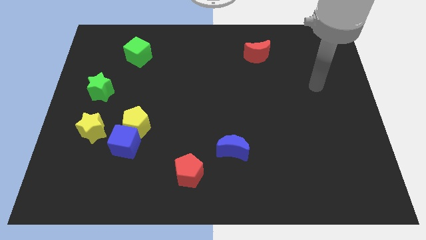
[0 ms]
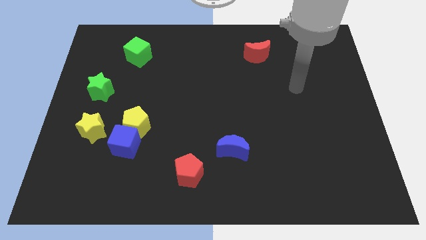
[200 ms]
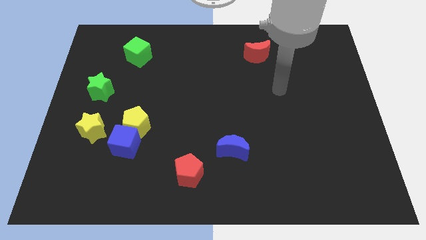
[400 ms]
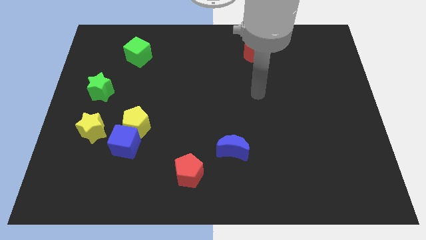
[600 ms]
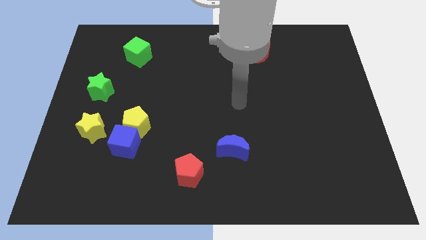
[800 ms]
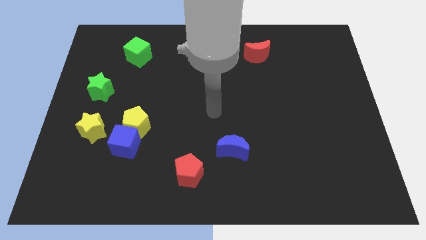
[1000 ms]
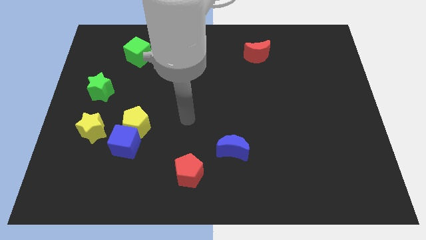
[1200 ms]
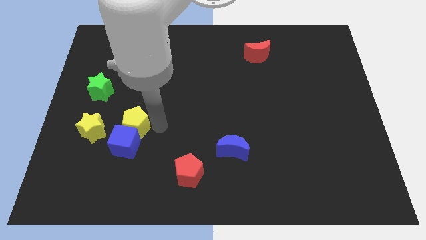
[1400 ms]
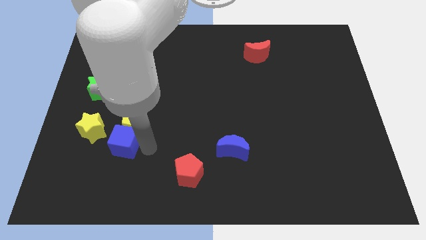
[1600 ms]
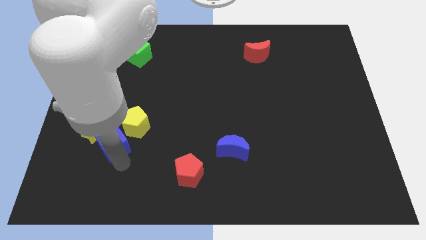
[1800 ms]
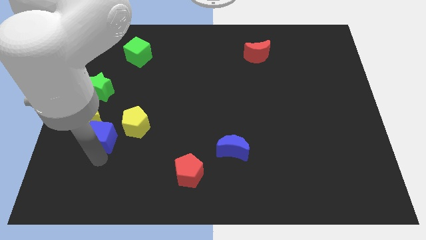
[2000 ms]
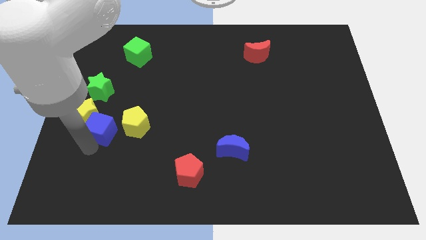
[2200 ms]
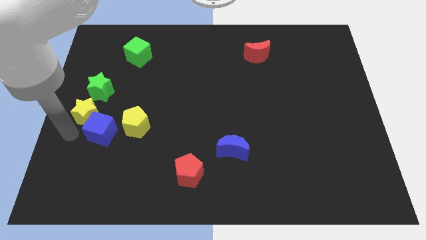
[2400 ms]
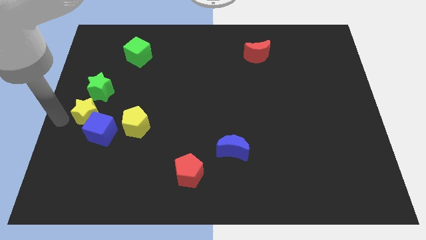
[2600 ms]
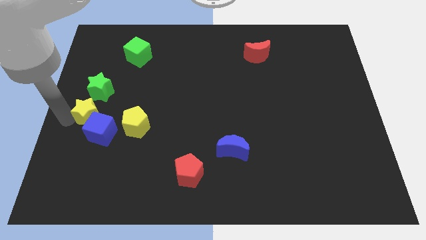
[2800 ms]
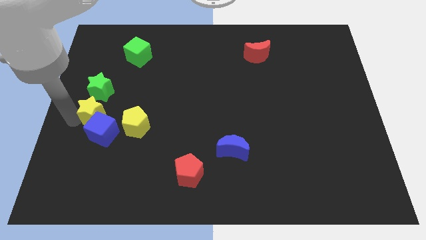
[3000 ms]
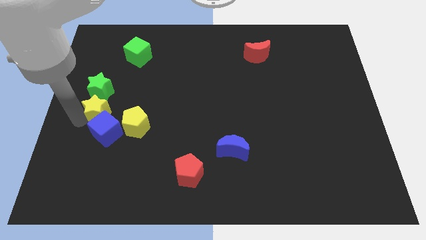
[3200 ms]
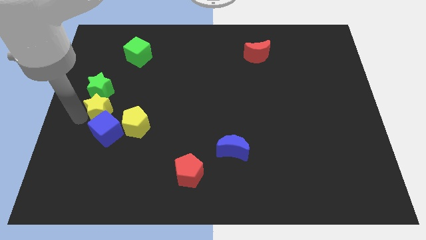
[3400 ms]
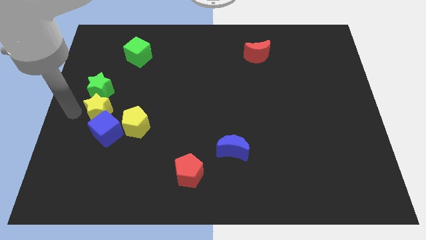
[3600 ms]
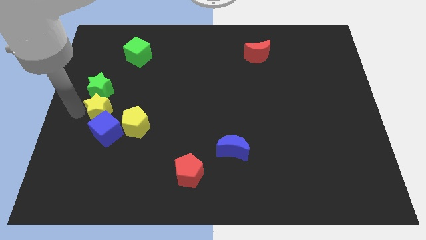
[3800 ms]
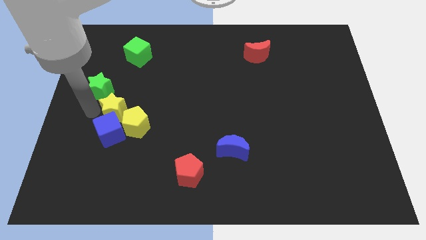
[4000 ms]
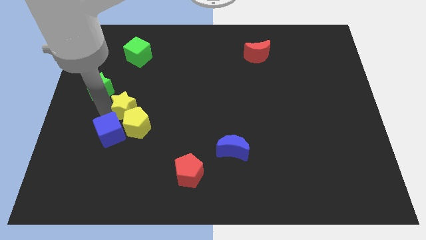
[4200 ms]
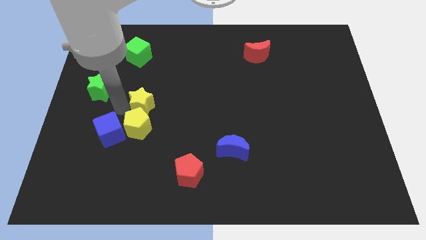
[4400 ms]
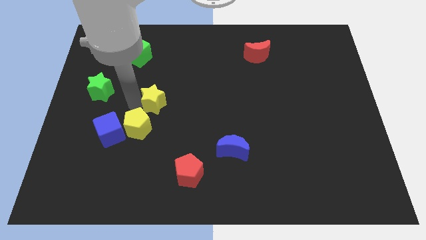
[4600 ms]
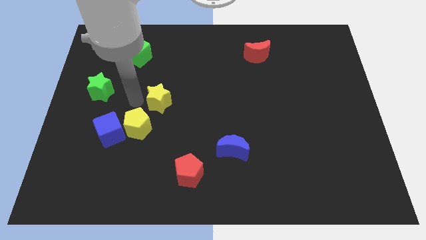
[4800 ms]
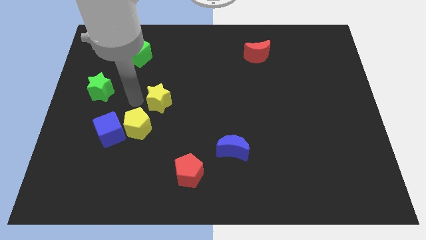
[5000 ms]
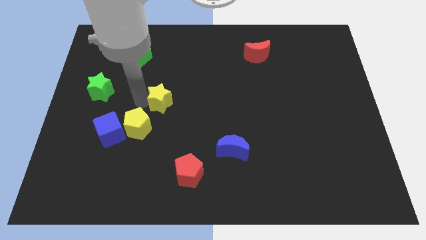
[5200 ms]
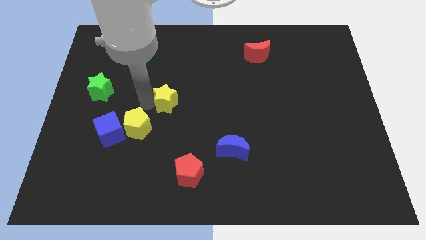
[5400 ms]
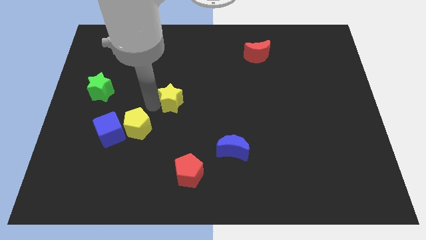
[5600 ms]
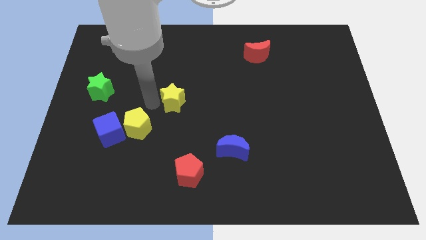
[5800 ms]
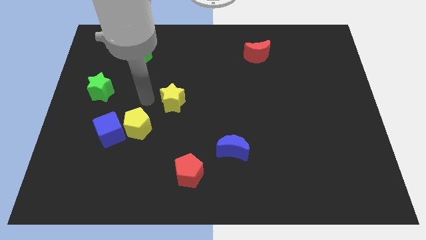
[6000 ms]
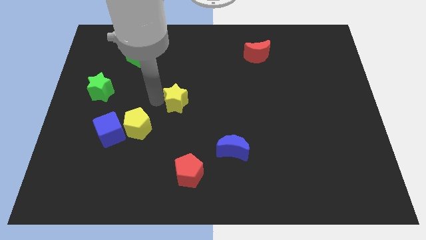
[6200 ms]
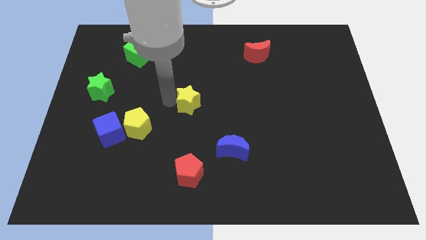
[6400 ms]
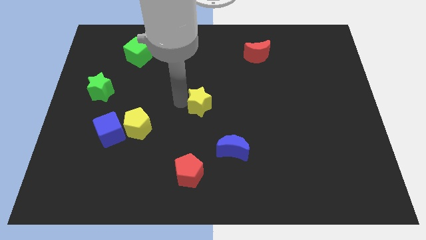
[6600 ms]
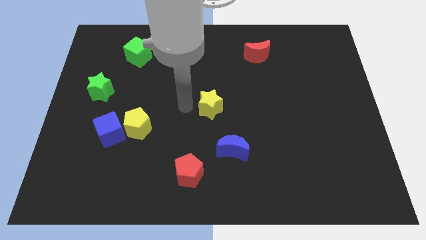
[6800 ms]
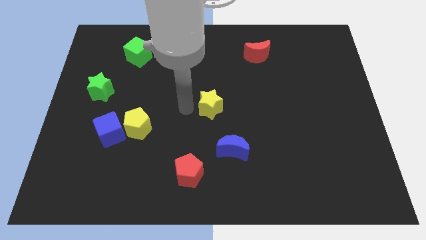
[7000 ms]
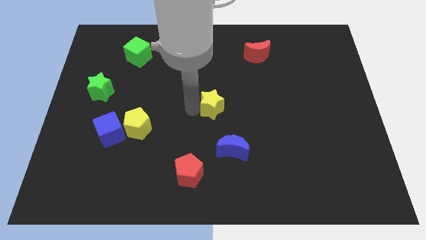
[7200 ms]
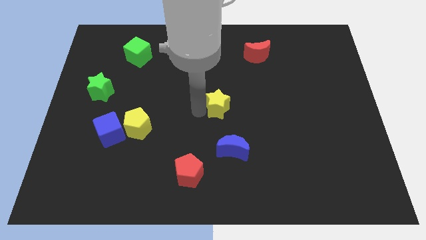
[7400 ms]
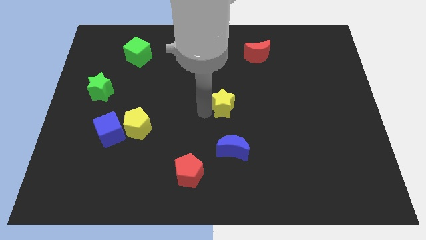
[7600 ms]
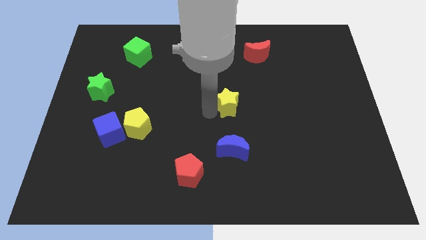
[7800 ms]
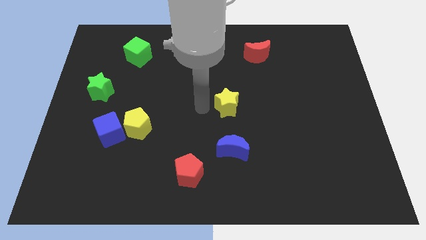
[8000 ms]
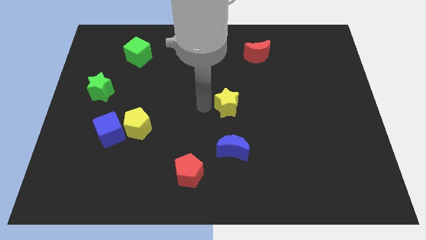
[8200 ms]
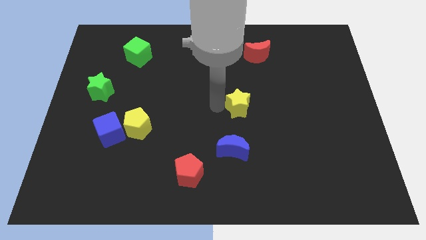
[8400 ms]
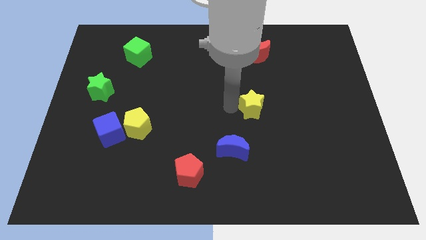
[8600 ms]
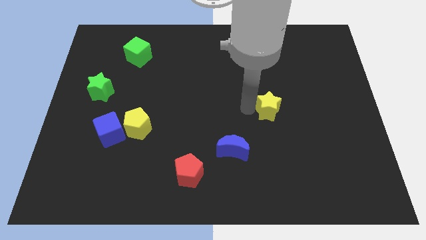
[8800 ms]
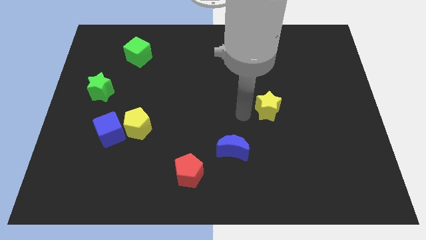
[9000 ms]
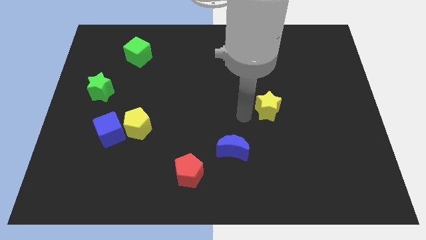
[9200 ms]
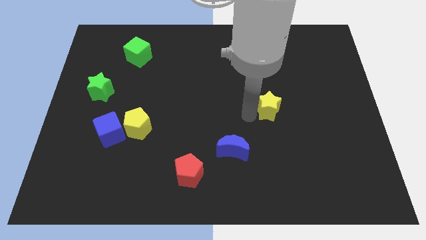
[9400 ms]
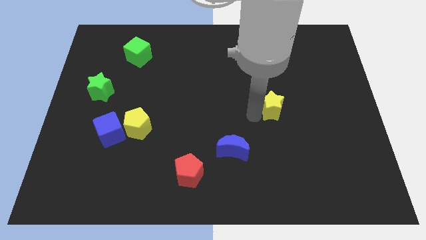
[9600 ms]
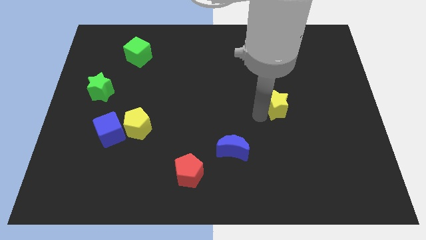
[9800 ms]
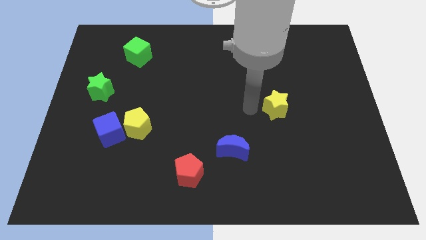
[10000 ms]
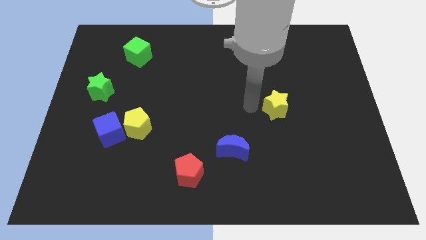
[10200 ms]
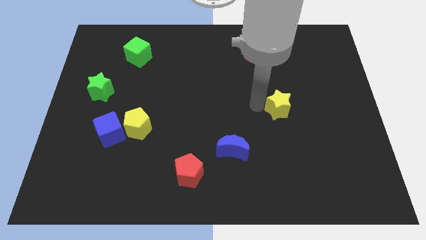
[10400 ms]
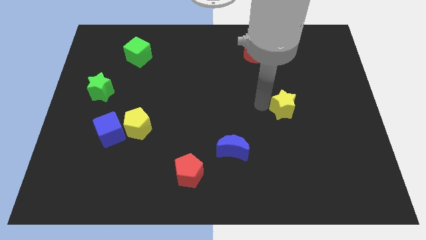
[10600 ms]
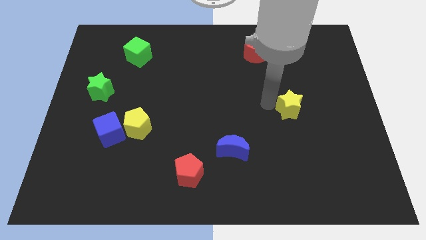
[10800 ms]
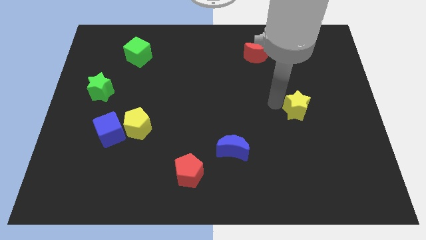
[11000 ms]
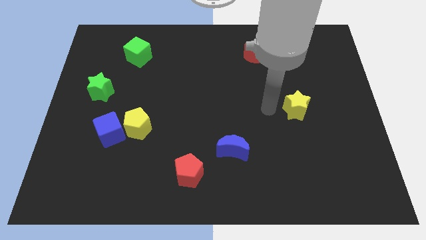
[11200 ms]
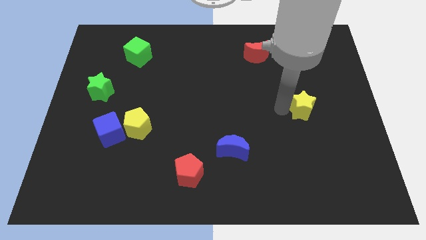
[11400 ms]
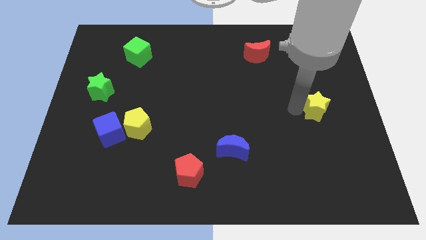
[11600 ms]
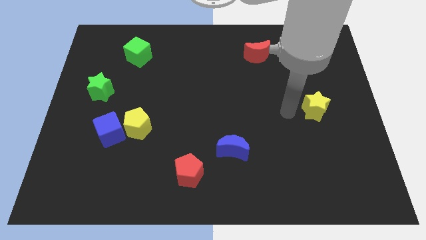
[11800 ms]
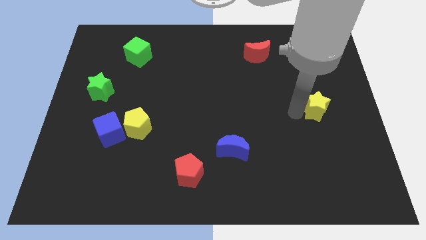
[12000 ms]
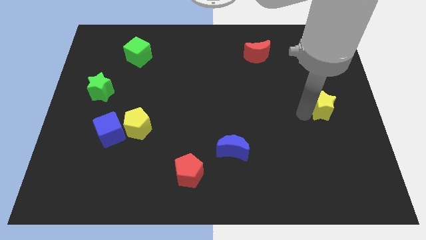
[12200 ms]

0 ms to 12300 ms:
move the yellow star to the right side of the board

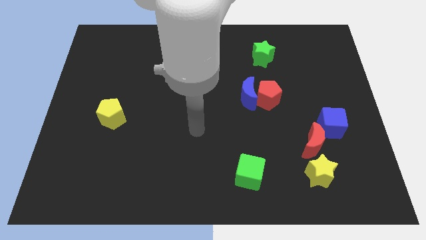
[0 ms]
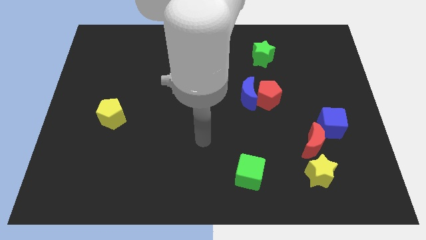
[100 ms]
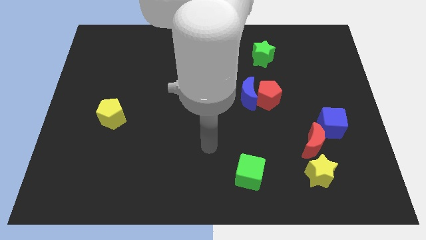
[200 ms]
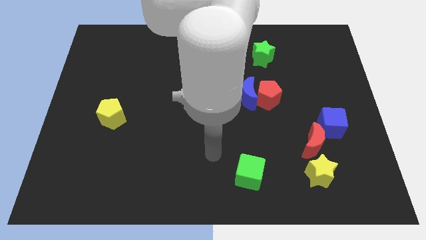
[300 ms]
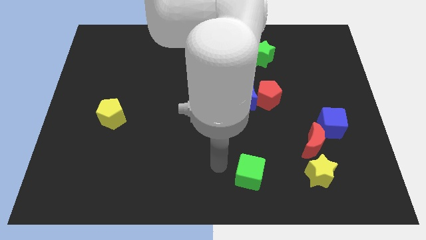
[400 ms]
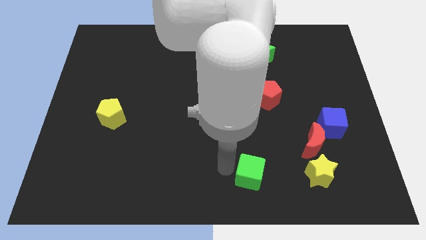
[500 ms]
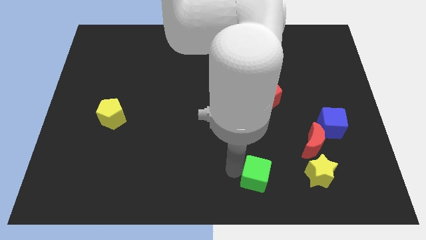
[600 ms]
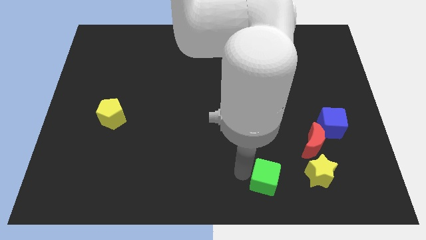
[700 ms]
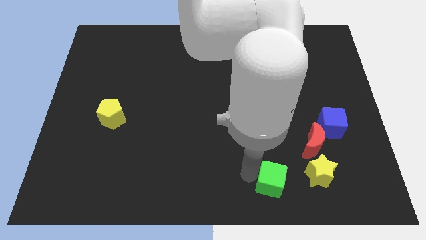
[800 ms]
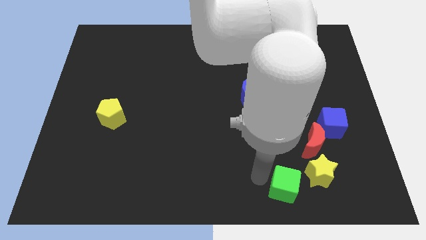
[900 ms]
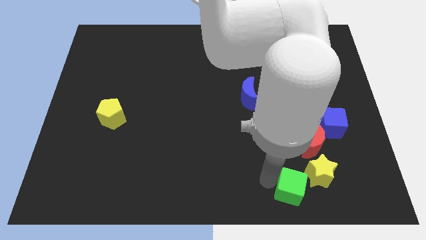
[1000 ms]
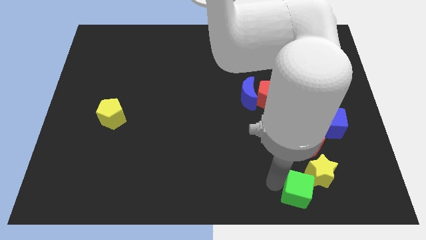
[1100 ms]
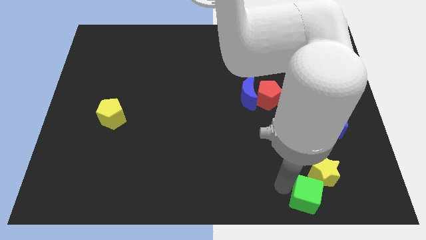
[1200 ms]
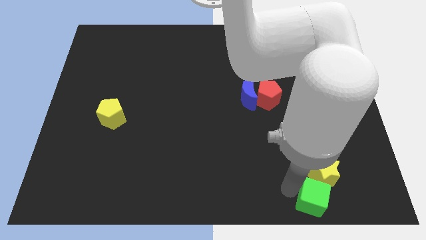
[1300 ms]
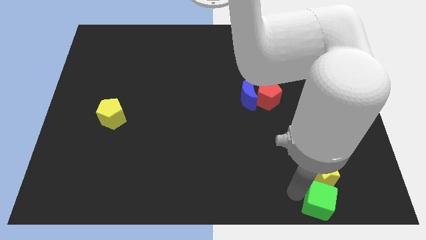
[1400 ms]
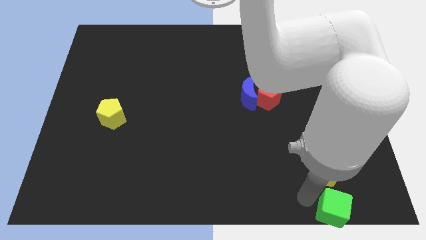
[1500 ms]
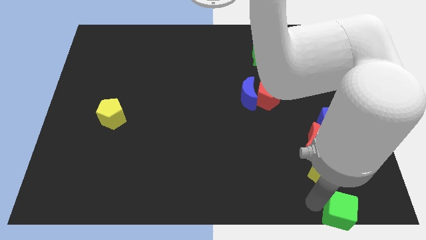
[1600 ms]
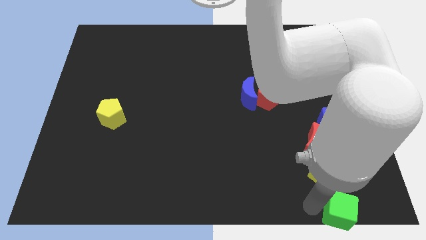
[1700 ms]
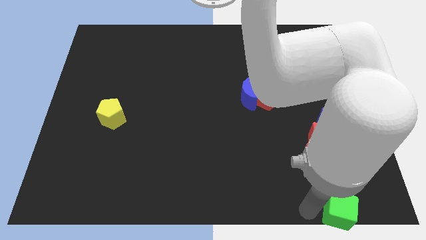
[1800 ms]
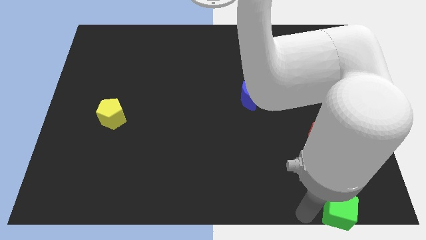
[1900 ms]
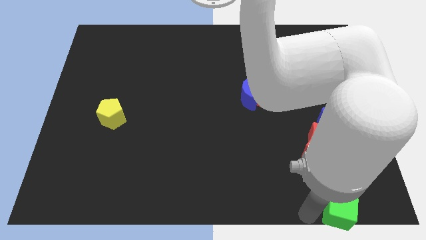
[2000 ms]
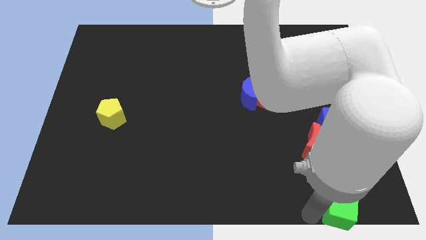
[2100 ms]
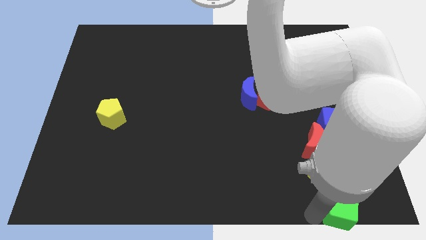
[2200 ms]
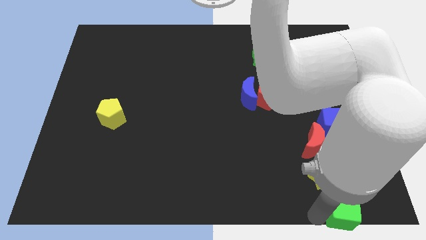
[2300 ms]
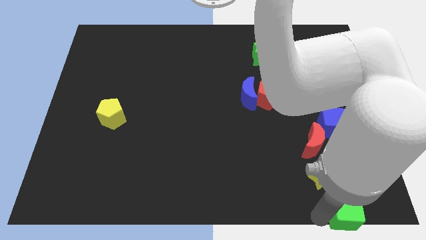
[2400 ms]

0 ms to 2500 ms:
slide the green cube to the lower right corner
